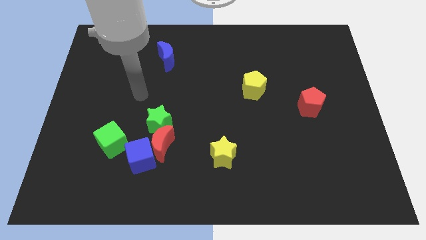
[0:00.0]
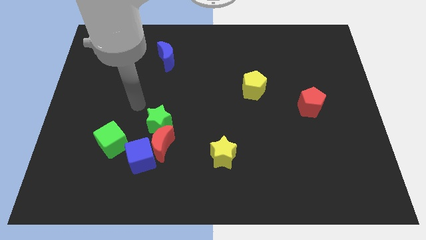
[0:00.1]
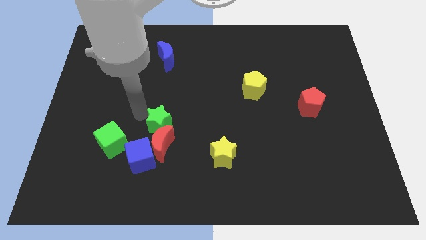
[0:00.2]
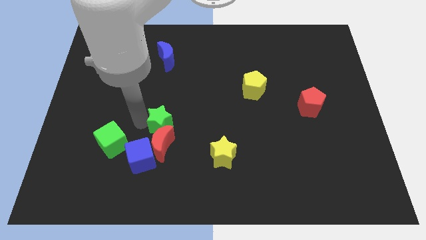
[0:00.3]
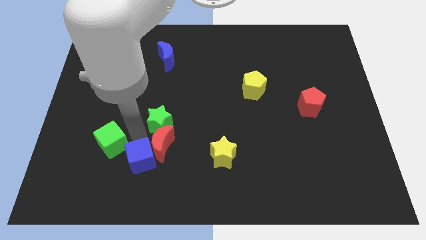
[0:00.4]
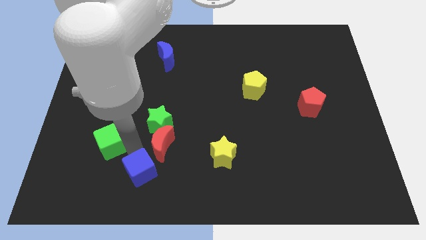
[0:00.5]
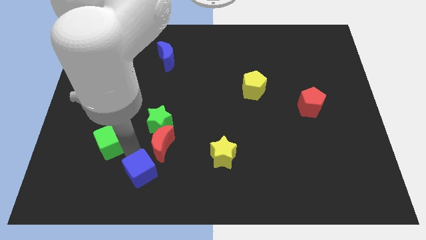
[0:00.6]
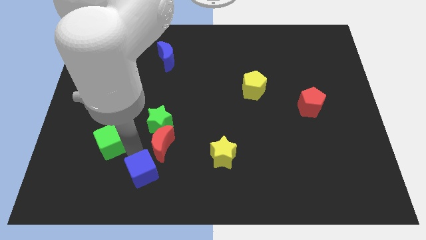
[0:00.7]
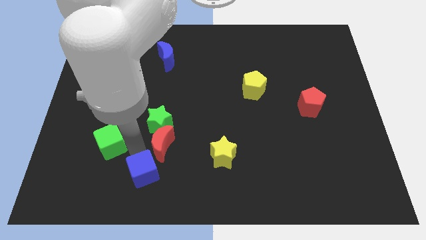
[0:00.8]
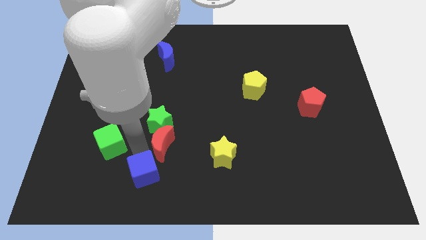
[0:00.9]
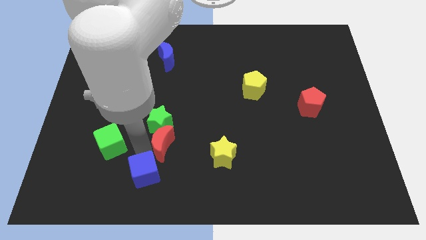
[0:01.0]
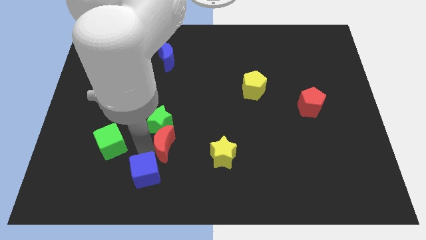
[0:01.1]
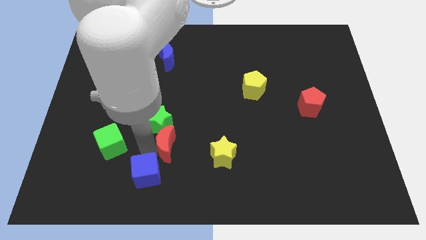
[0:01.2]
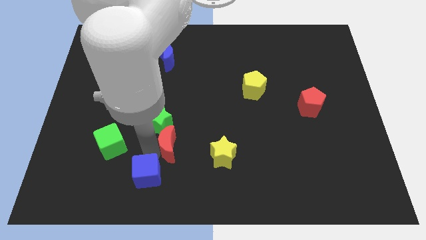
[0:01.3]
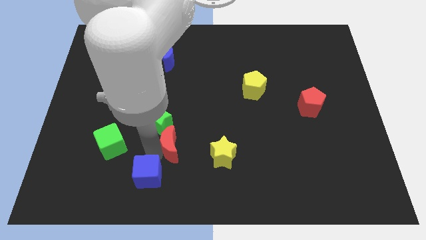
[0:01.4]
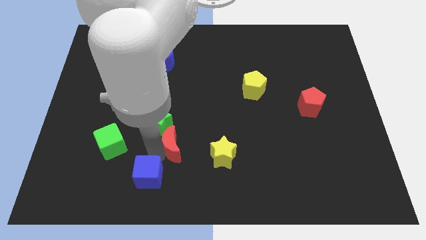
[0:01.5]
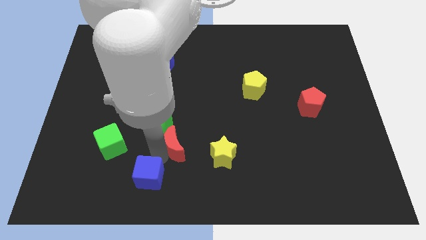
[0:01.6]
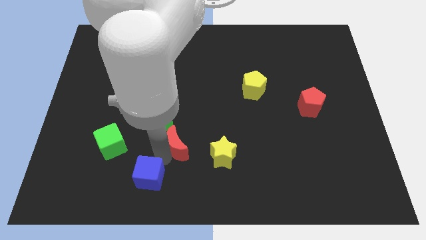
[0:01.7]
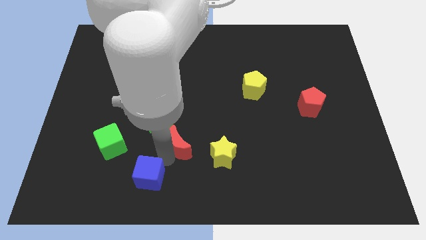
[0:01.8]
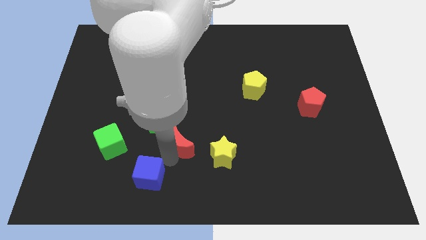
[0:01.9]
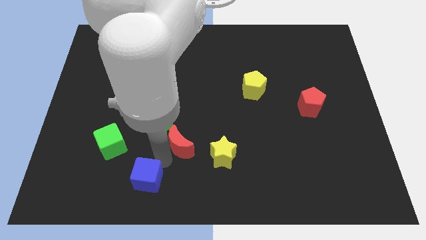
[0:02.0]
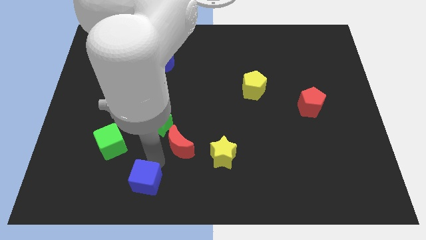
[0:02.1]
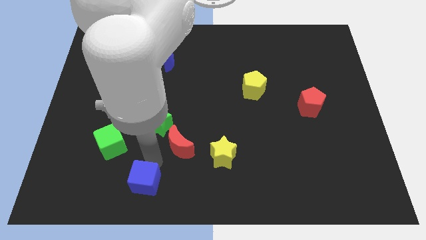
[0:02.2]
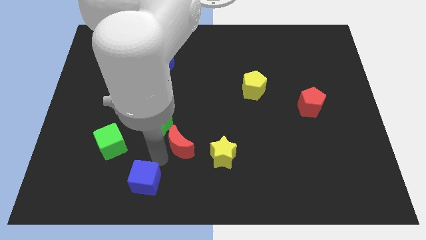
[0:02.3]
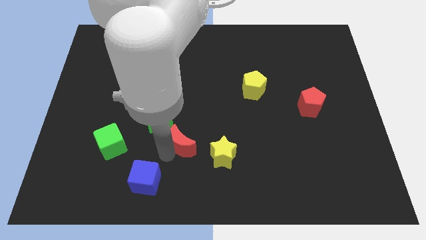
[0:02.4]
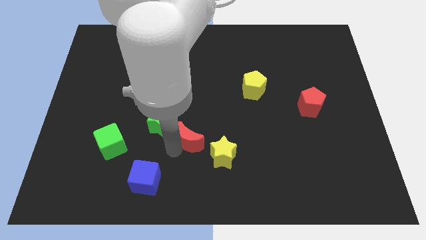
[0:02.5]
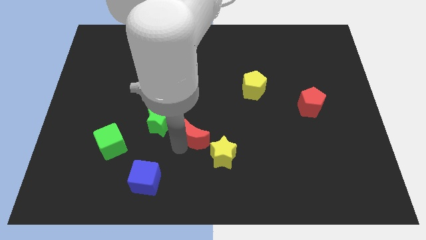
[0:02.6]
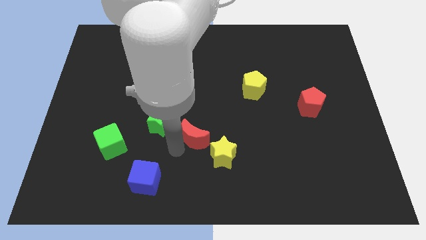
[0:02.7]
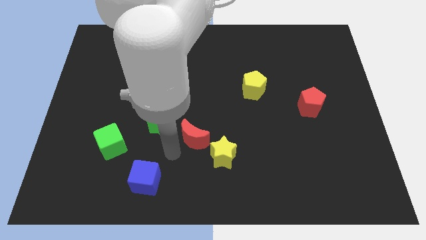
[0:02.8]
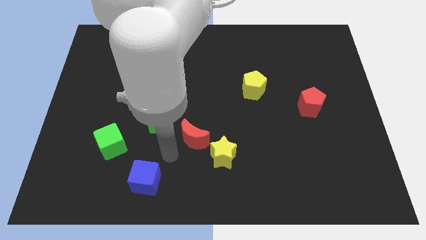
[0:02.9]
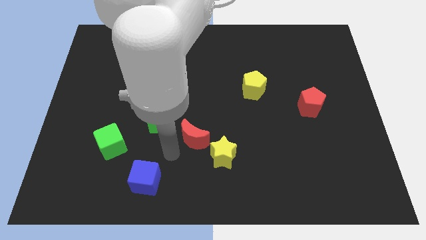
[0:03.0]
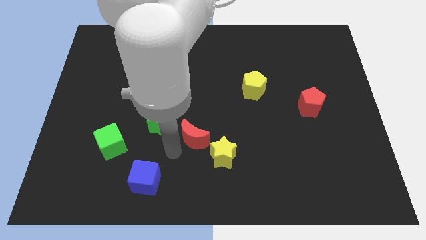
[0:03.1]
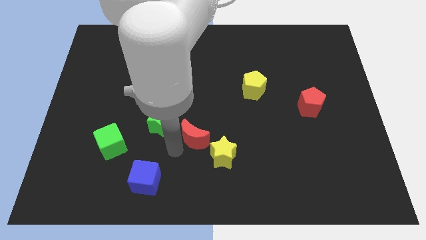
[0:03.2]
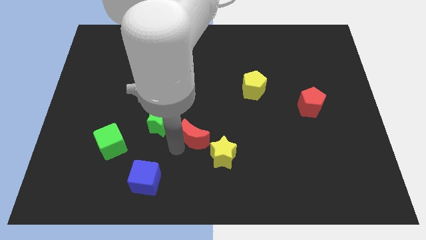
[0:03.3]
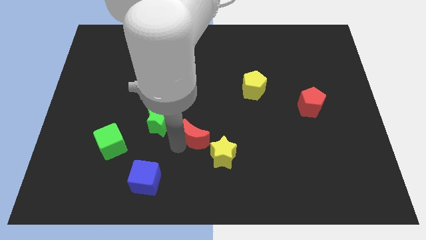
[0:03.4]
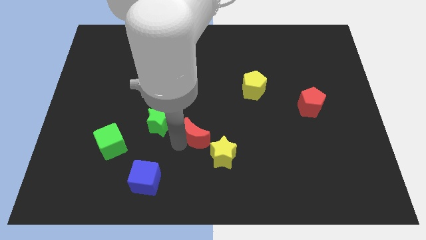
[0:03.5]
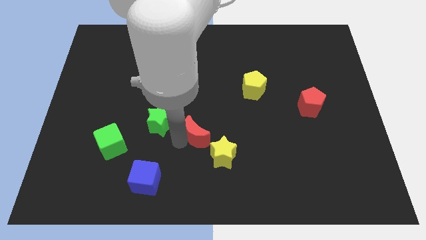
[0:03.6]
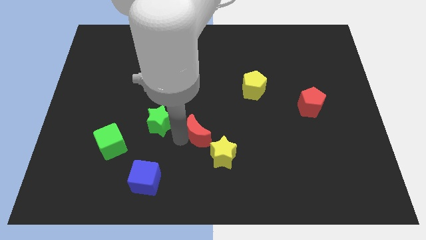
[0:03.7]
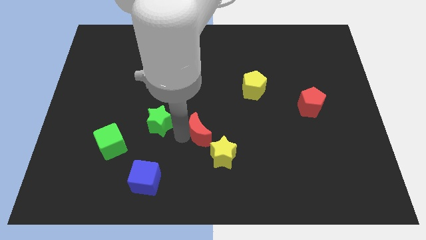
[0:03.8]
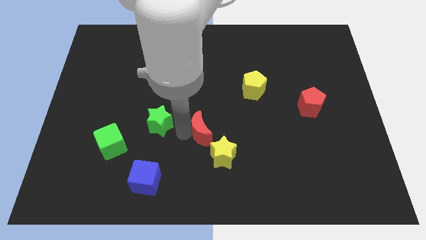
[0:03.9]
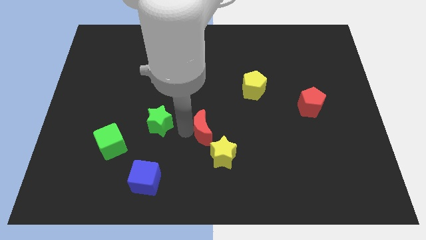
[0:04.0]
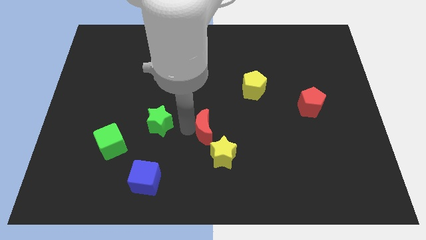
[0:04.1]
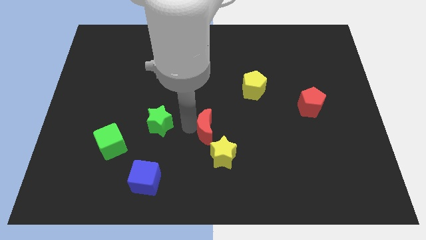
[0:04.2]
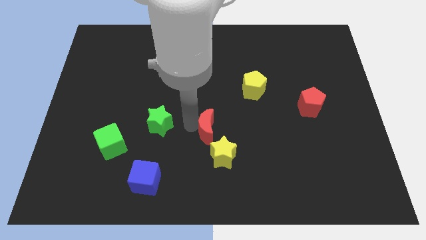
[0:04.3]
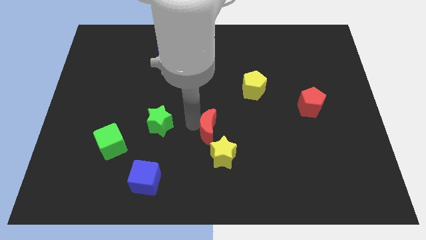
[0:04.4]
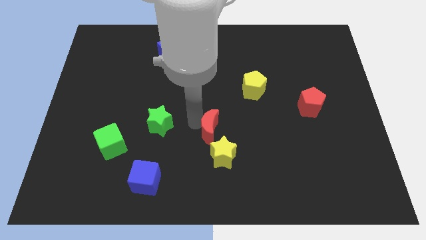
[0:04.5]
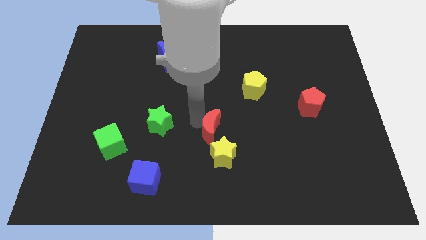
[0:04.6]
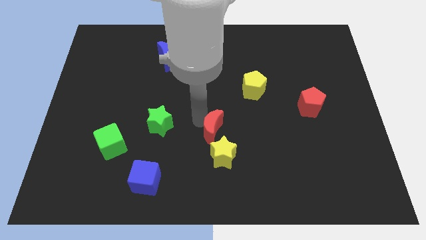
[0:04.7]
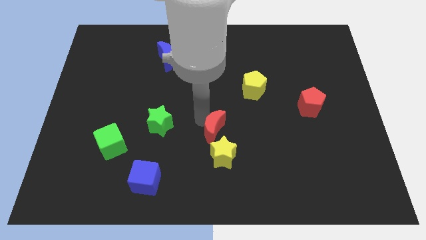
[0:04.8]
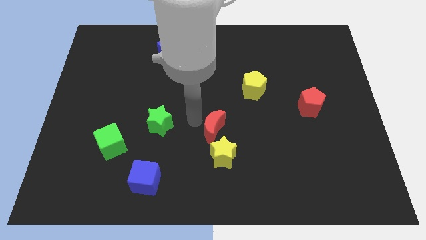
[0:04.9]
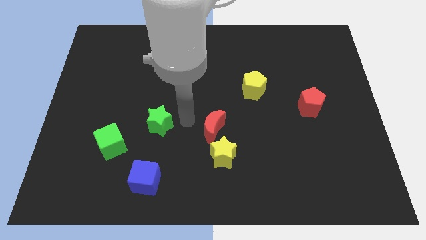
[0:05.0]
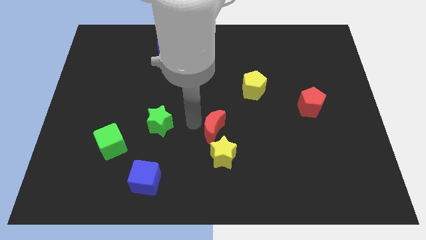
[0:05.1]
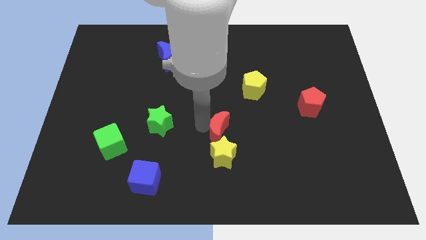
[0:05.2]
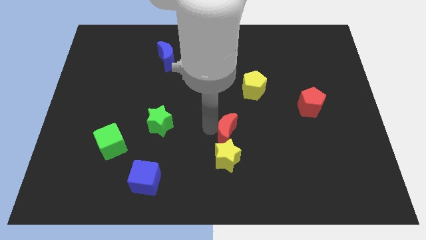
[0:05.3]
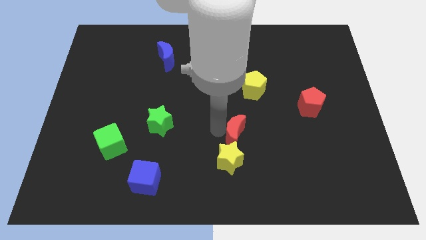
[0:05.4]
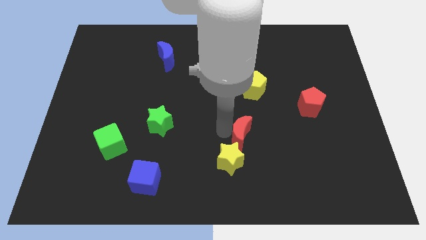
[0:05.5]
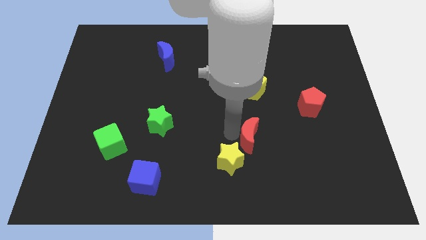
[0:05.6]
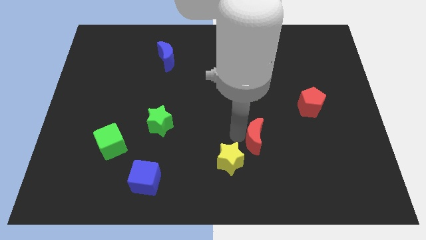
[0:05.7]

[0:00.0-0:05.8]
slide the red moon right

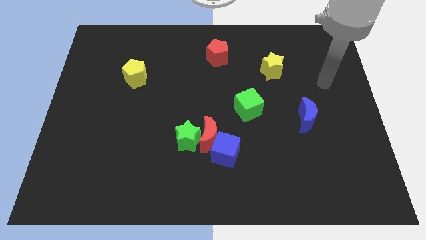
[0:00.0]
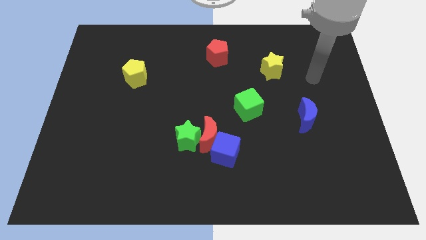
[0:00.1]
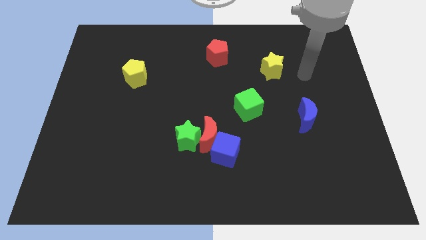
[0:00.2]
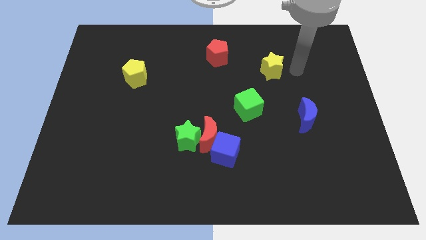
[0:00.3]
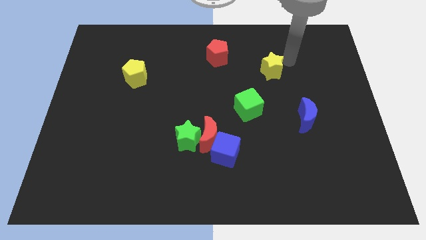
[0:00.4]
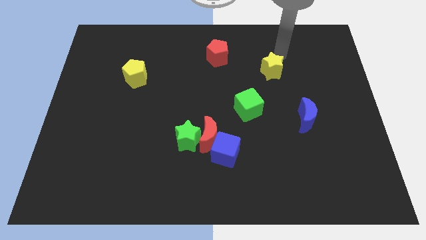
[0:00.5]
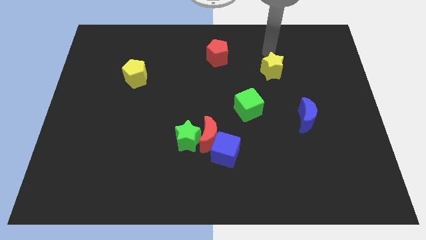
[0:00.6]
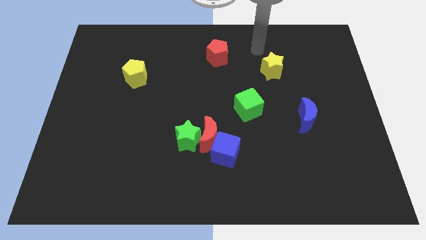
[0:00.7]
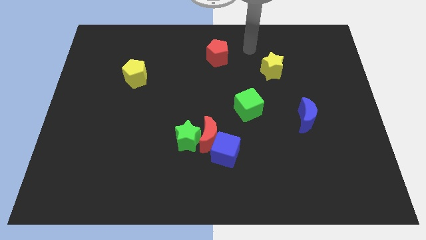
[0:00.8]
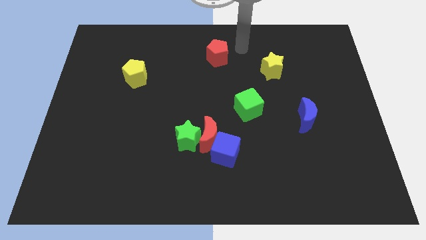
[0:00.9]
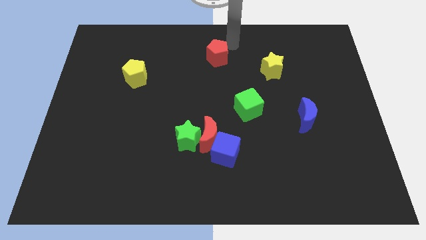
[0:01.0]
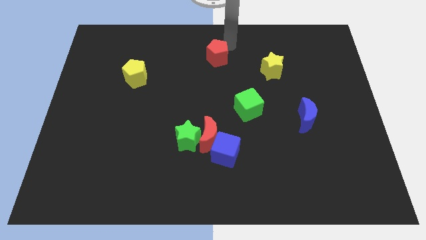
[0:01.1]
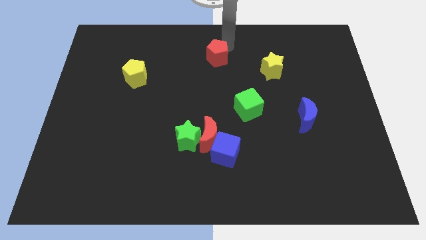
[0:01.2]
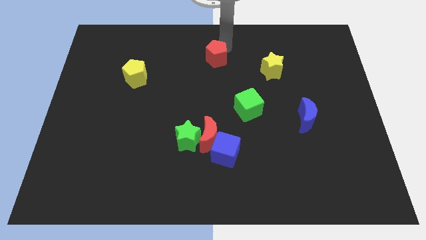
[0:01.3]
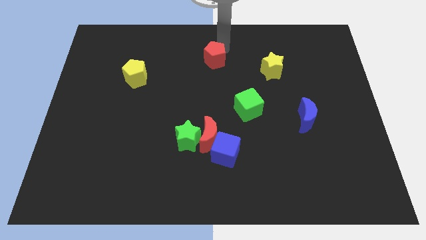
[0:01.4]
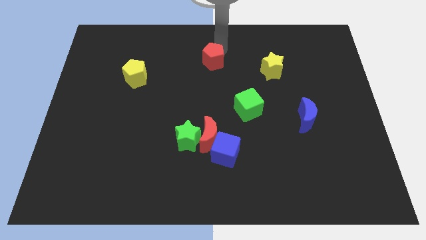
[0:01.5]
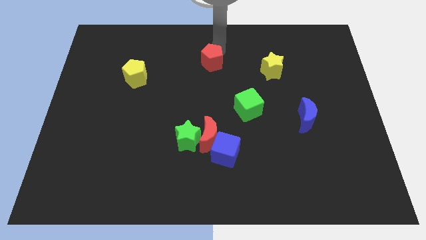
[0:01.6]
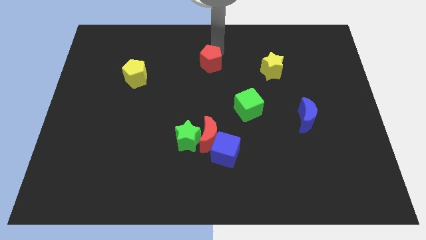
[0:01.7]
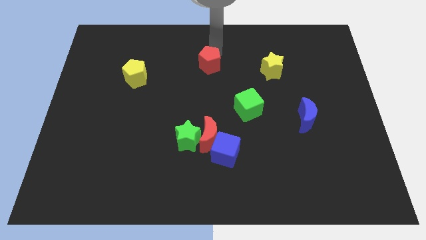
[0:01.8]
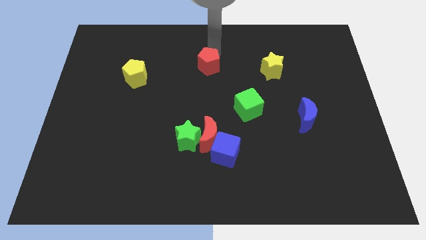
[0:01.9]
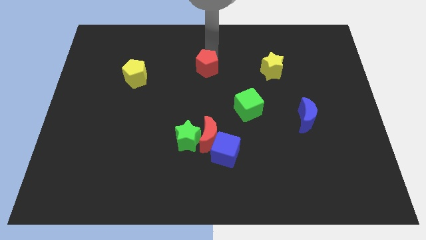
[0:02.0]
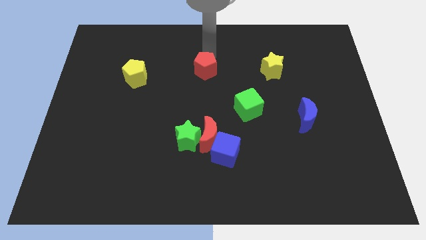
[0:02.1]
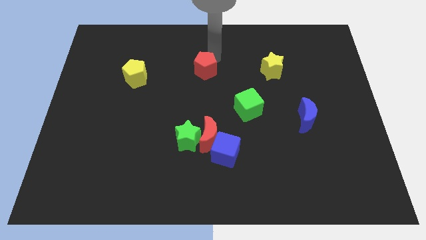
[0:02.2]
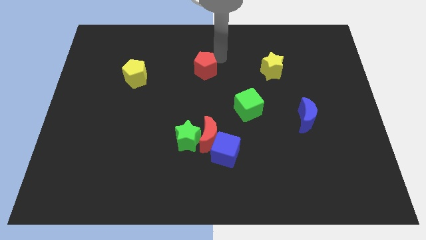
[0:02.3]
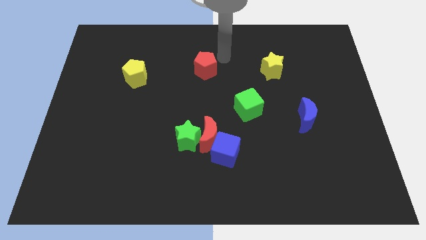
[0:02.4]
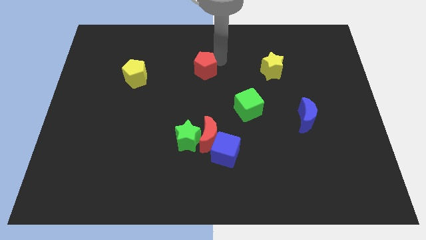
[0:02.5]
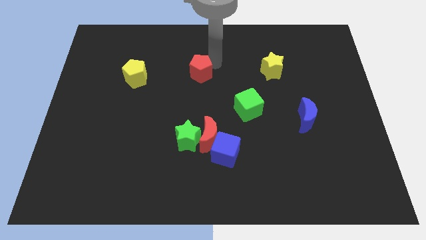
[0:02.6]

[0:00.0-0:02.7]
slide the red pentagon diagonally downwards and to the left a little bit
